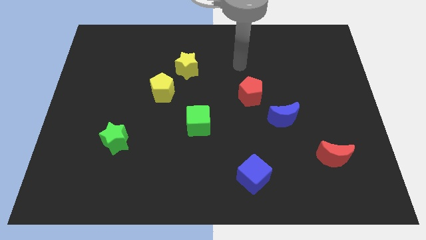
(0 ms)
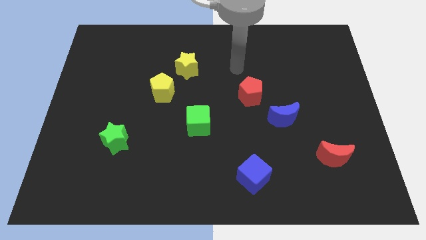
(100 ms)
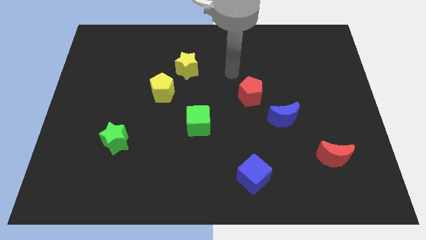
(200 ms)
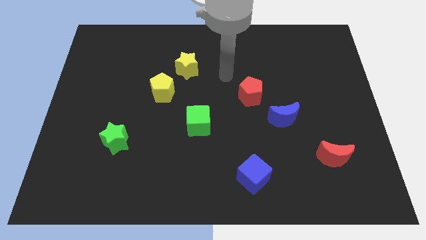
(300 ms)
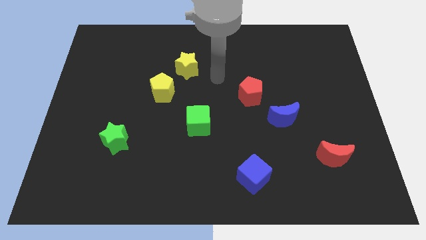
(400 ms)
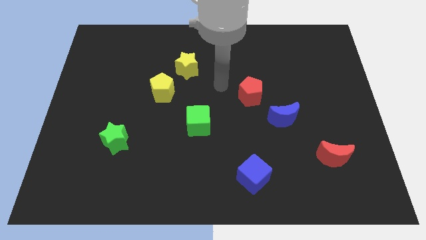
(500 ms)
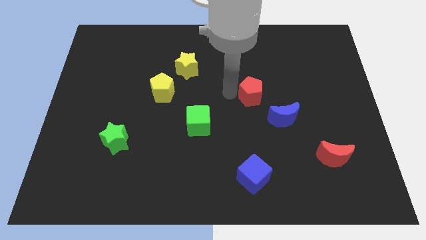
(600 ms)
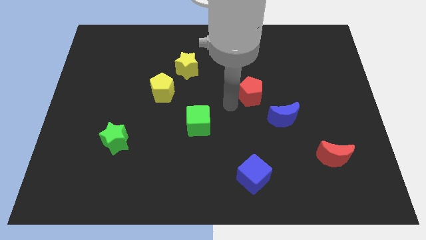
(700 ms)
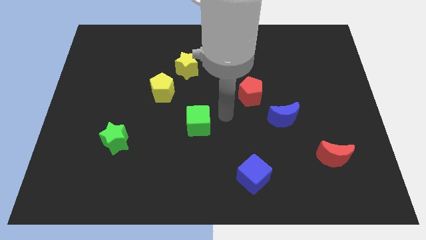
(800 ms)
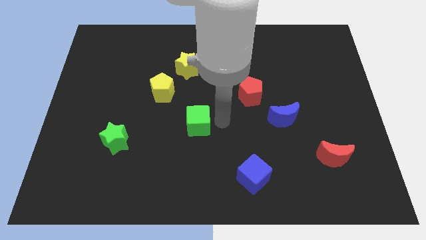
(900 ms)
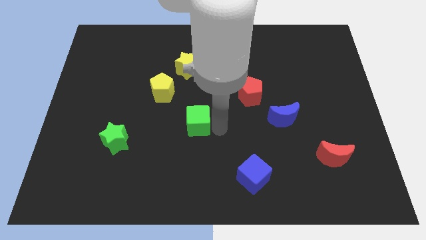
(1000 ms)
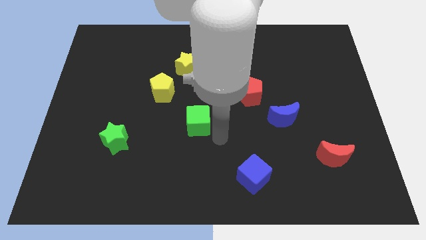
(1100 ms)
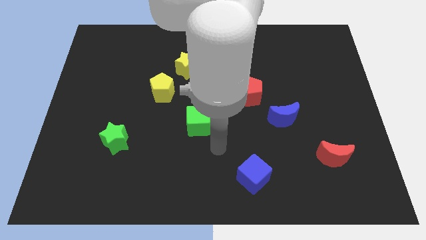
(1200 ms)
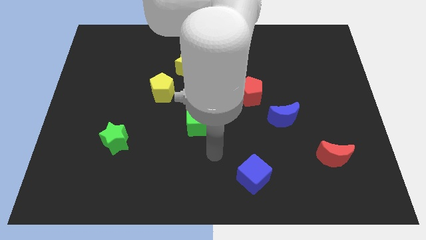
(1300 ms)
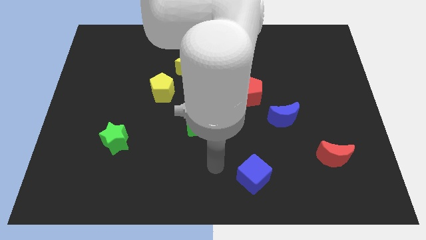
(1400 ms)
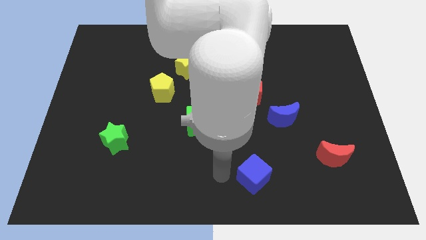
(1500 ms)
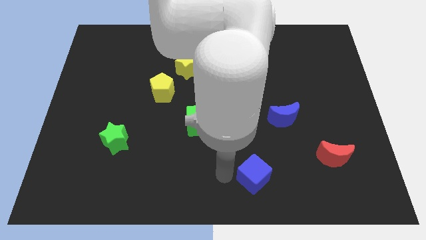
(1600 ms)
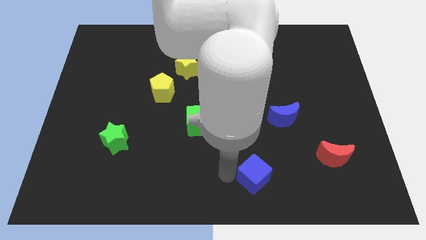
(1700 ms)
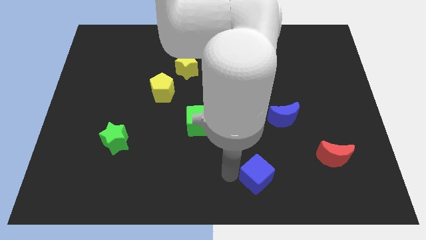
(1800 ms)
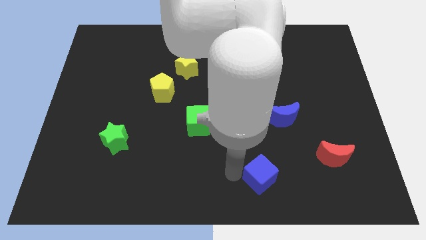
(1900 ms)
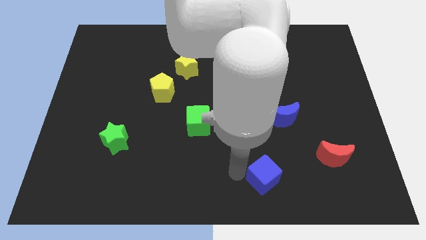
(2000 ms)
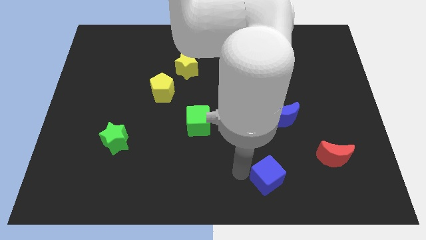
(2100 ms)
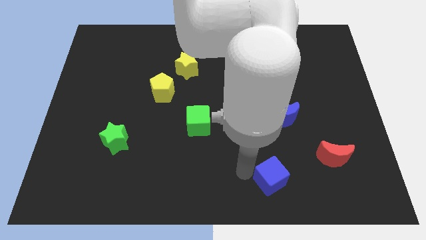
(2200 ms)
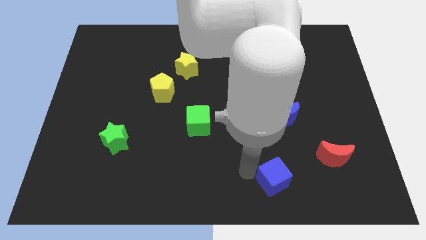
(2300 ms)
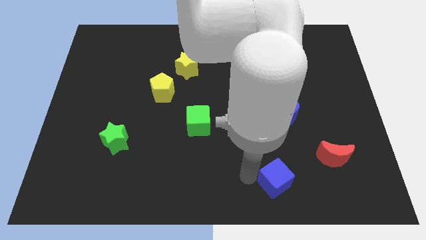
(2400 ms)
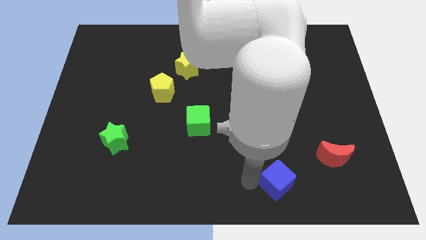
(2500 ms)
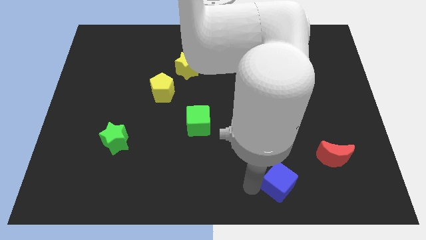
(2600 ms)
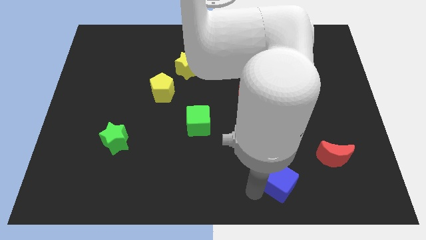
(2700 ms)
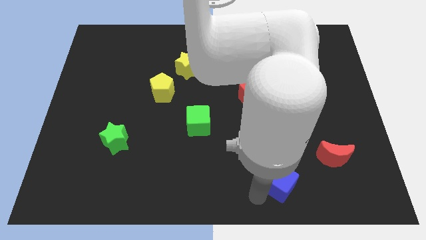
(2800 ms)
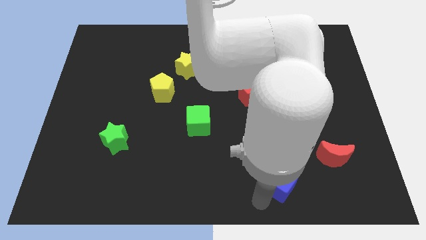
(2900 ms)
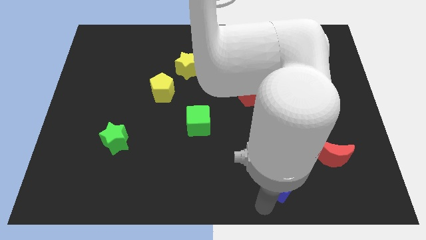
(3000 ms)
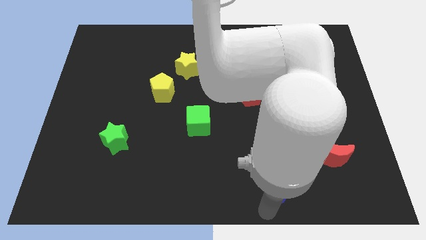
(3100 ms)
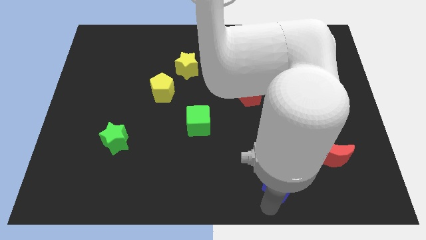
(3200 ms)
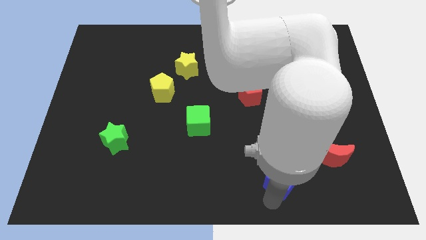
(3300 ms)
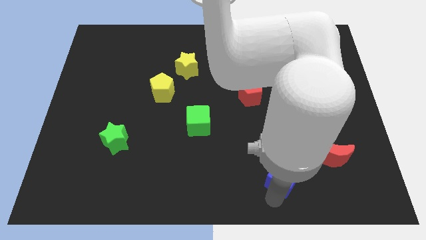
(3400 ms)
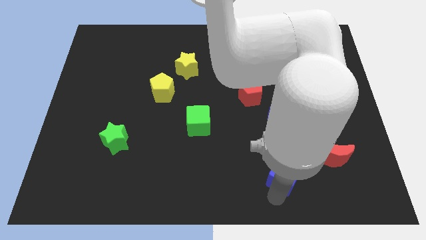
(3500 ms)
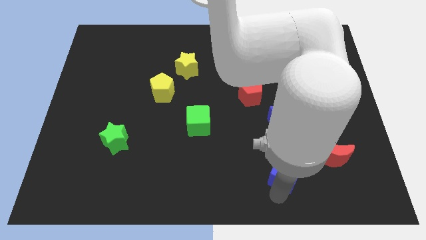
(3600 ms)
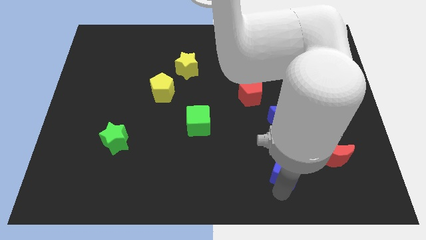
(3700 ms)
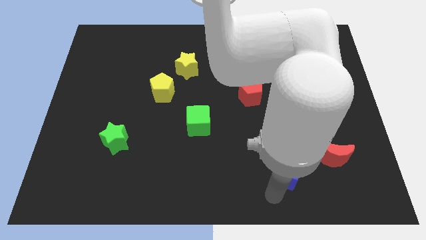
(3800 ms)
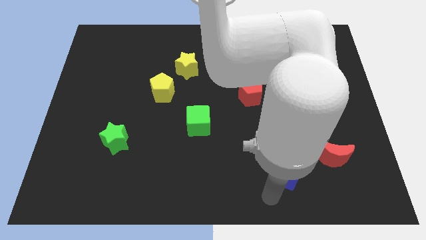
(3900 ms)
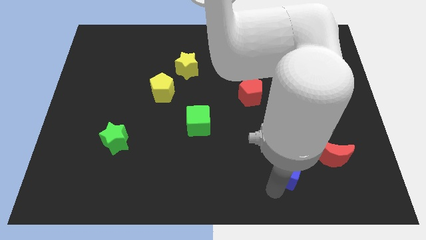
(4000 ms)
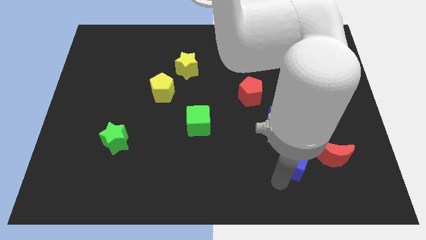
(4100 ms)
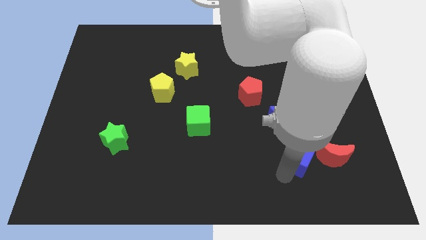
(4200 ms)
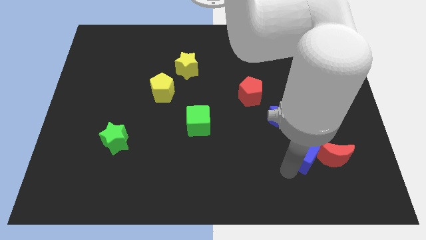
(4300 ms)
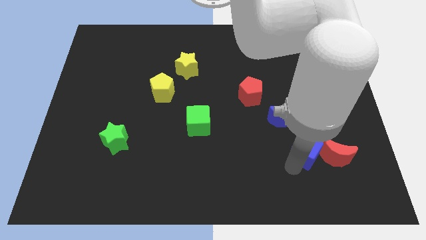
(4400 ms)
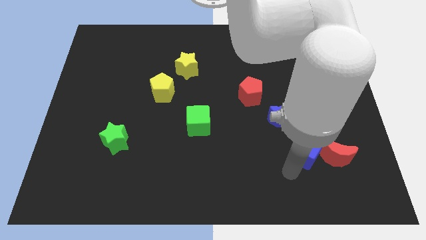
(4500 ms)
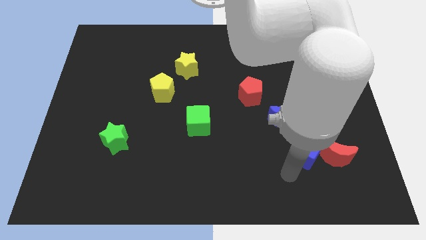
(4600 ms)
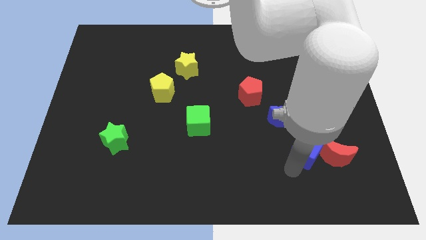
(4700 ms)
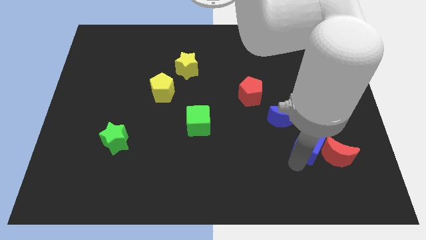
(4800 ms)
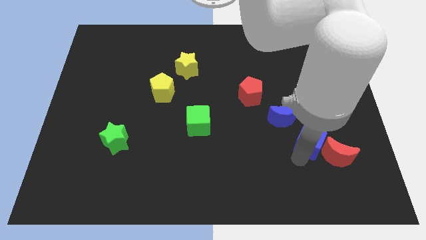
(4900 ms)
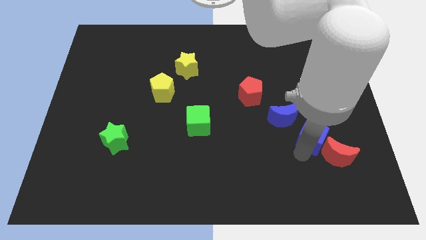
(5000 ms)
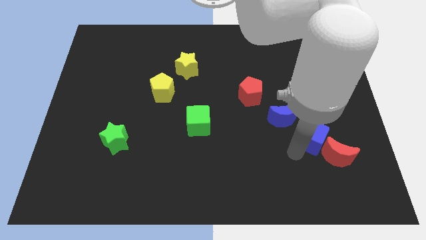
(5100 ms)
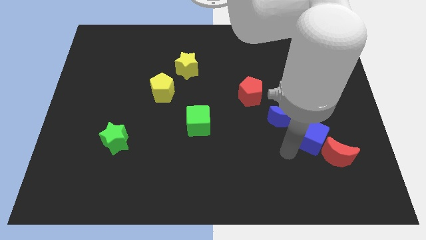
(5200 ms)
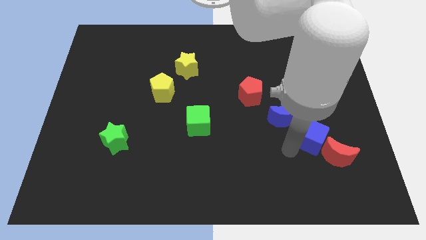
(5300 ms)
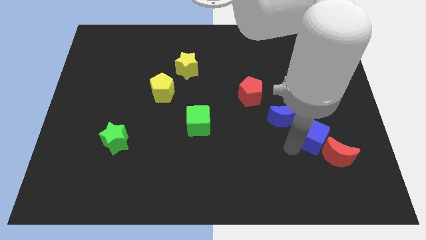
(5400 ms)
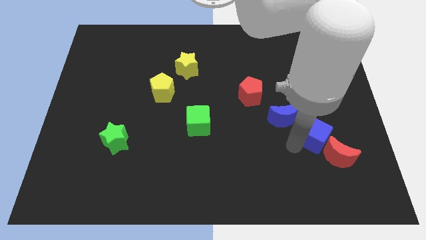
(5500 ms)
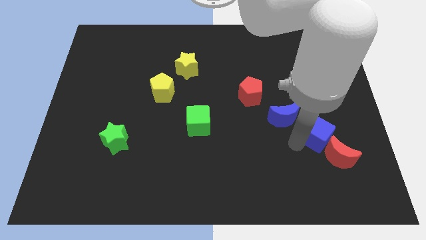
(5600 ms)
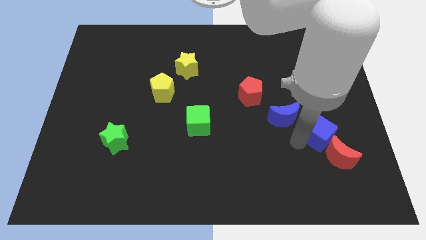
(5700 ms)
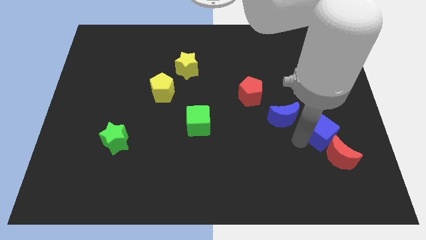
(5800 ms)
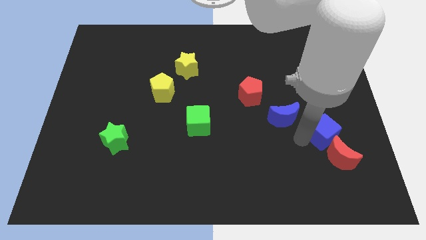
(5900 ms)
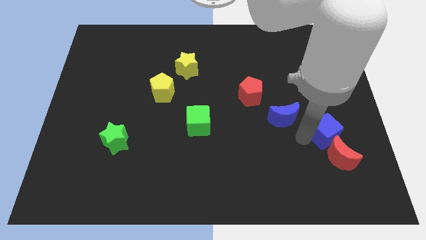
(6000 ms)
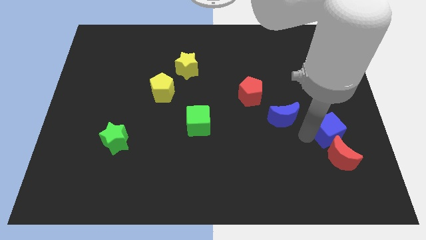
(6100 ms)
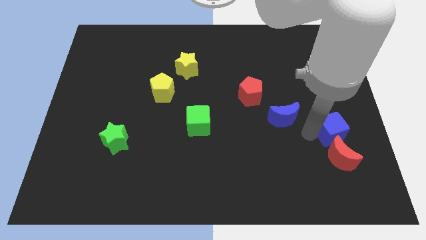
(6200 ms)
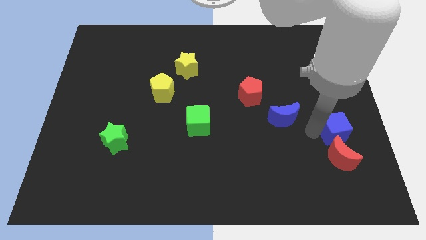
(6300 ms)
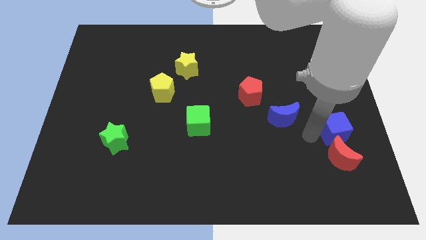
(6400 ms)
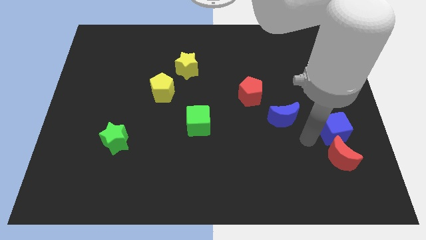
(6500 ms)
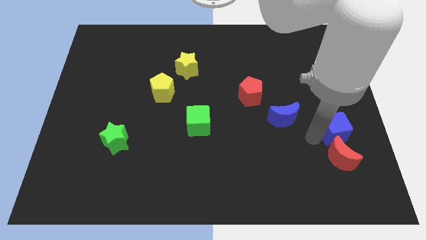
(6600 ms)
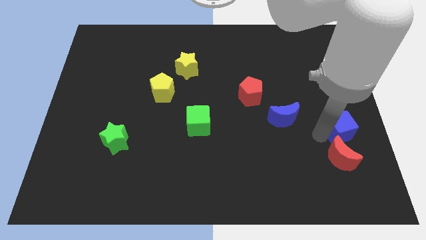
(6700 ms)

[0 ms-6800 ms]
push the blue cube to the right side of the board
